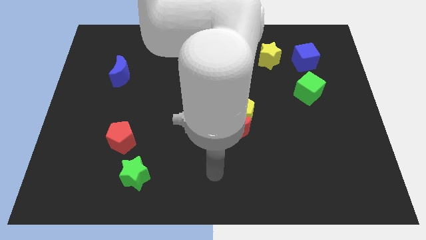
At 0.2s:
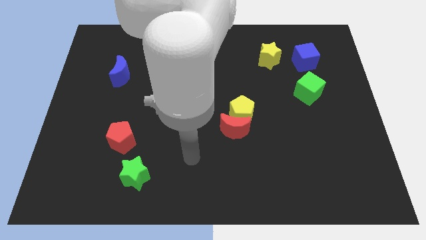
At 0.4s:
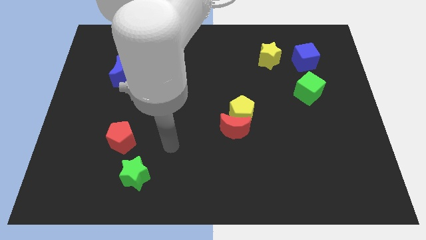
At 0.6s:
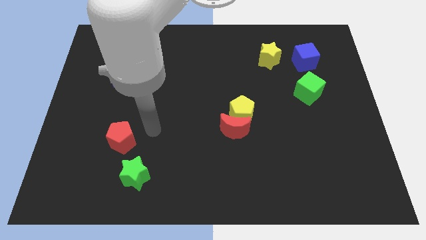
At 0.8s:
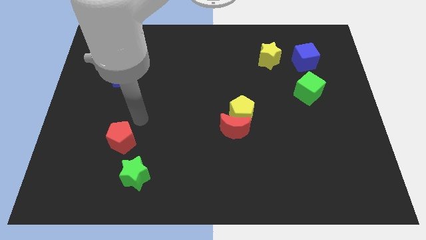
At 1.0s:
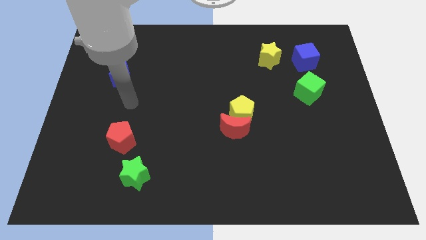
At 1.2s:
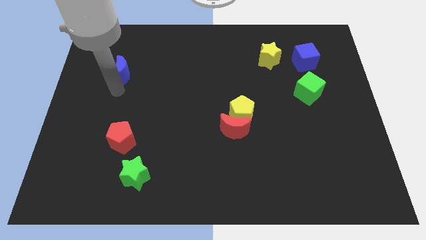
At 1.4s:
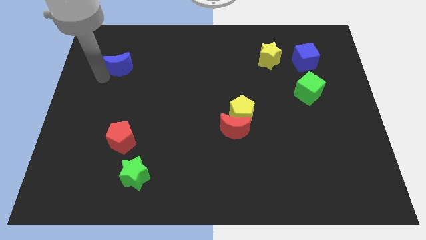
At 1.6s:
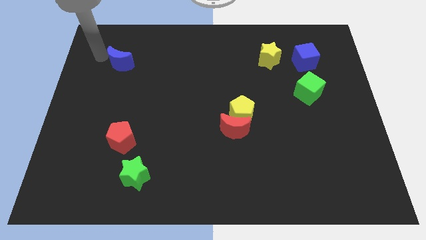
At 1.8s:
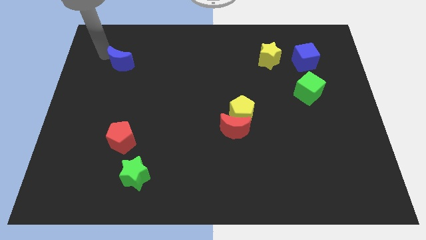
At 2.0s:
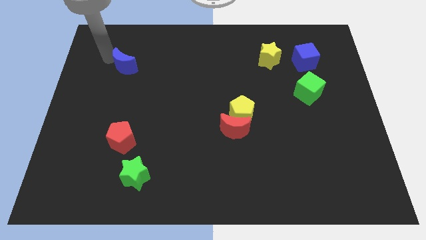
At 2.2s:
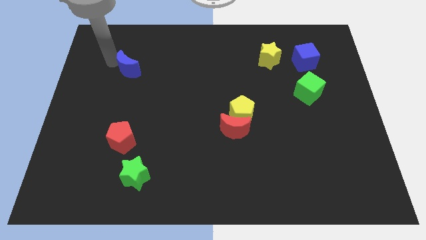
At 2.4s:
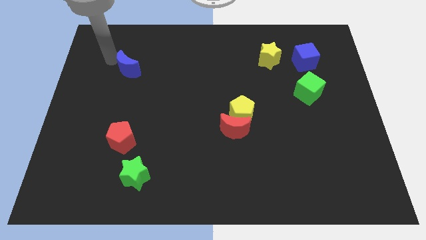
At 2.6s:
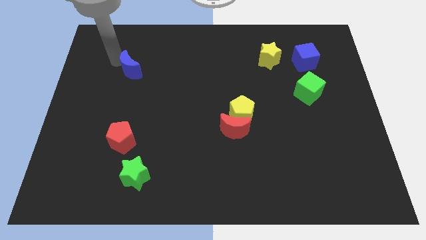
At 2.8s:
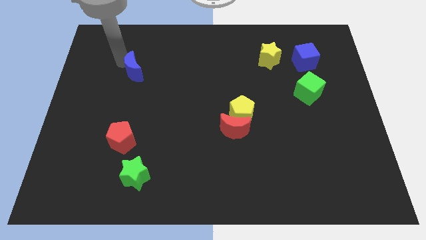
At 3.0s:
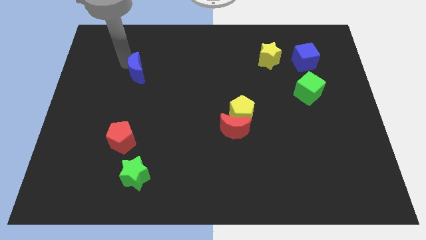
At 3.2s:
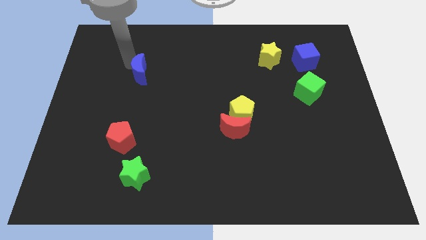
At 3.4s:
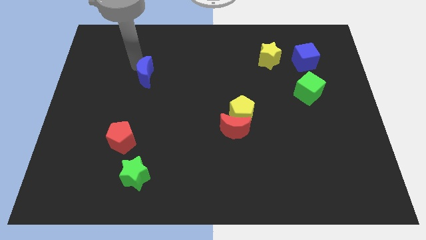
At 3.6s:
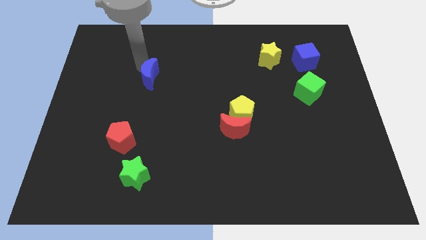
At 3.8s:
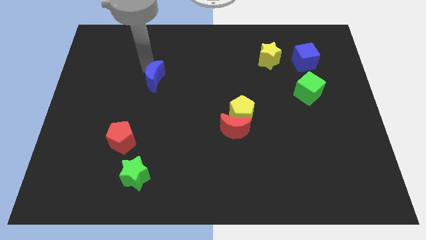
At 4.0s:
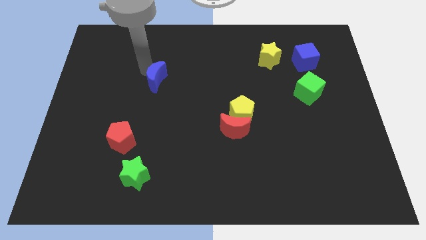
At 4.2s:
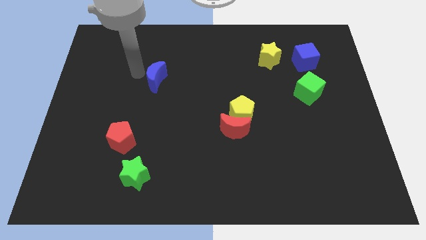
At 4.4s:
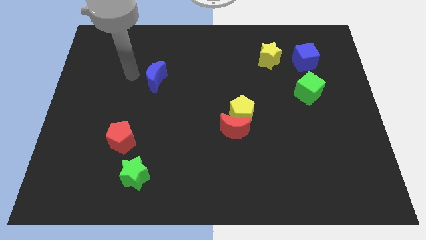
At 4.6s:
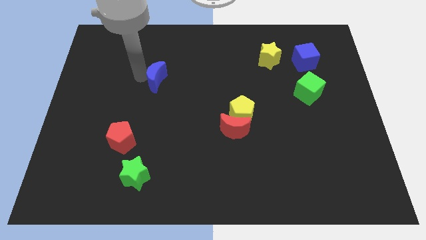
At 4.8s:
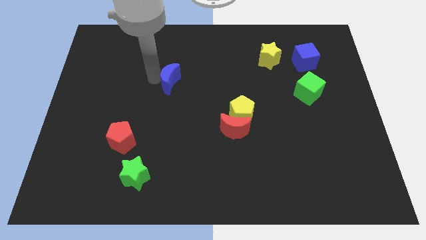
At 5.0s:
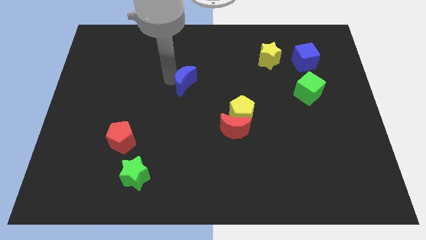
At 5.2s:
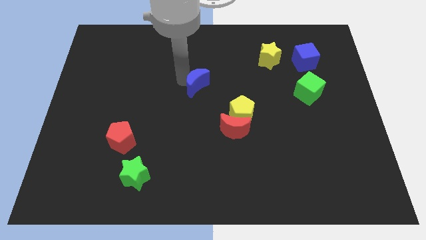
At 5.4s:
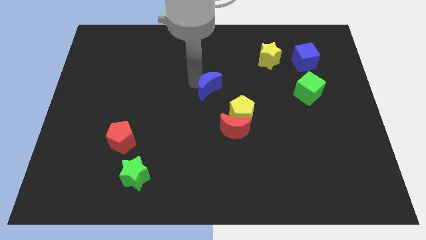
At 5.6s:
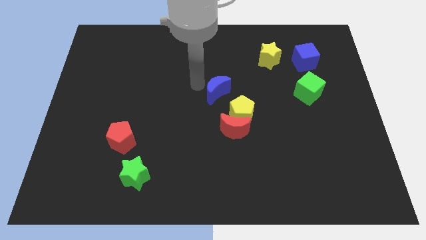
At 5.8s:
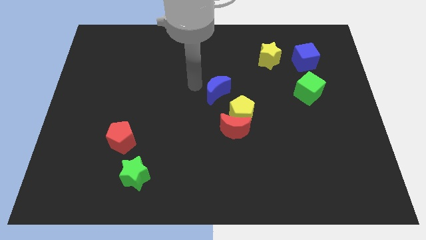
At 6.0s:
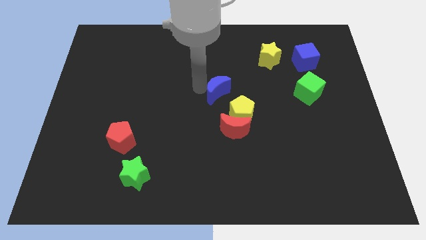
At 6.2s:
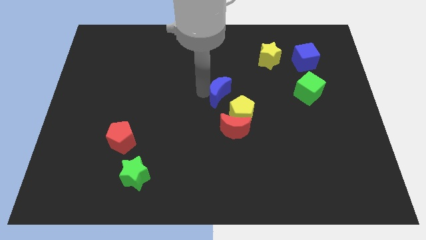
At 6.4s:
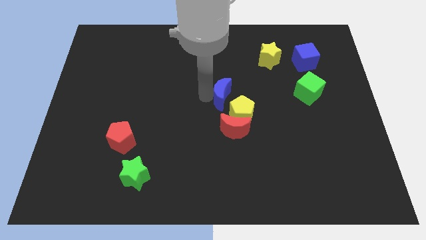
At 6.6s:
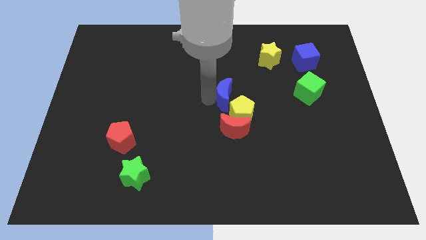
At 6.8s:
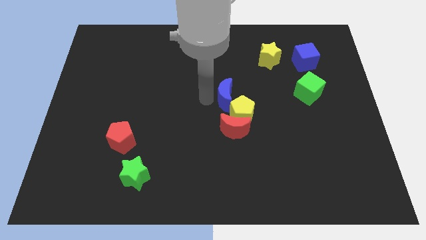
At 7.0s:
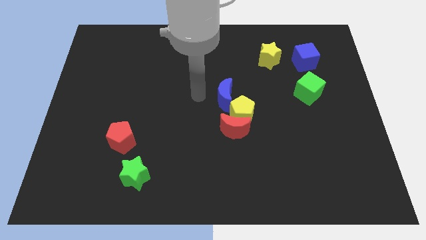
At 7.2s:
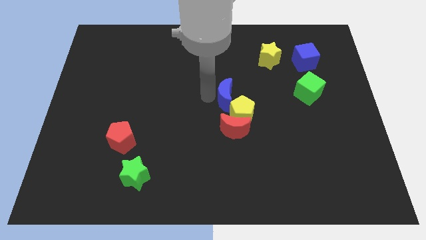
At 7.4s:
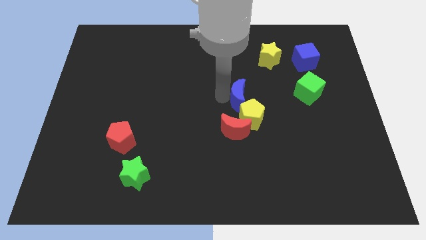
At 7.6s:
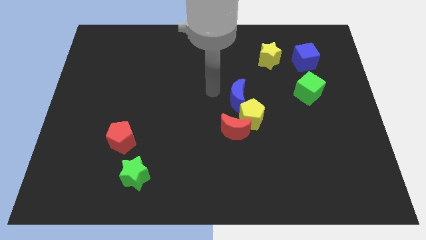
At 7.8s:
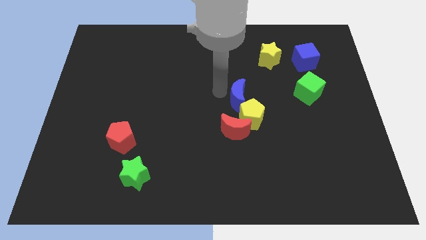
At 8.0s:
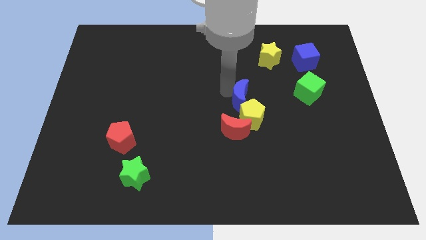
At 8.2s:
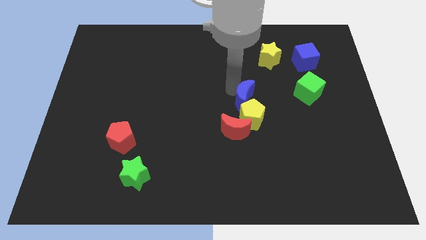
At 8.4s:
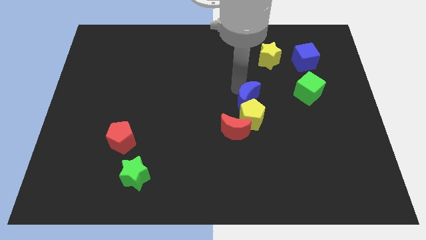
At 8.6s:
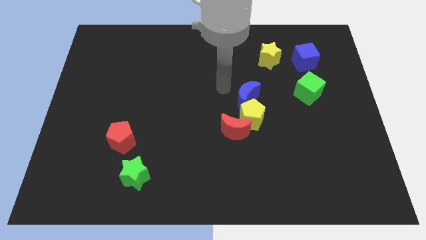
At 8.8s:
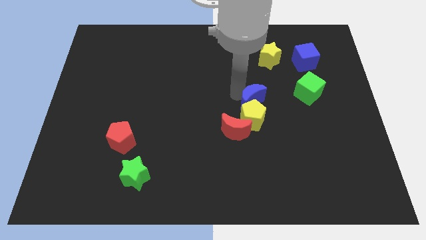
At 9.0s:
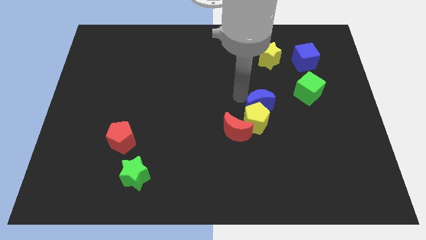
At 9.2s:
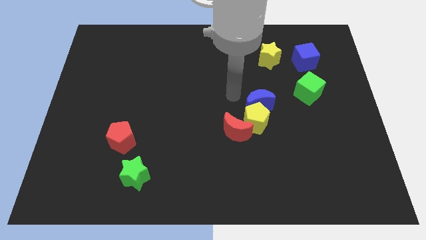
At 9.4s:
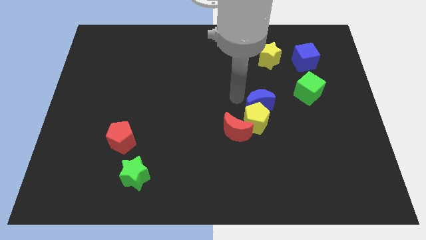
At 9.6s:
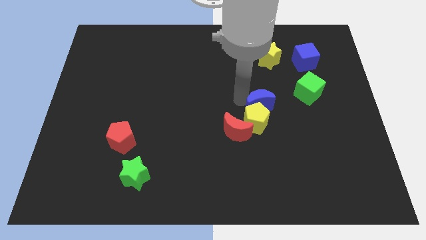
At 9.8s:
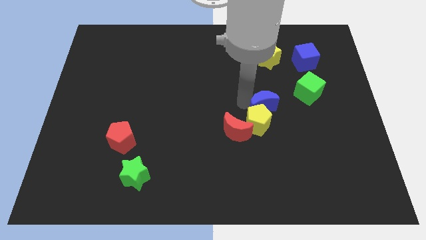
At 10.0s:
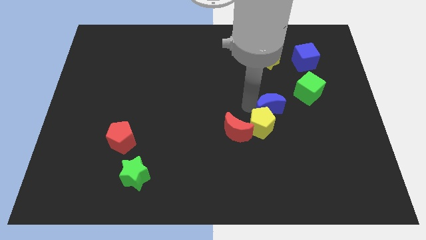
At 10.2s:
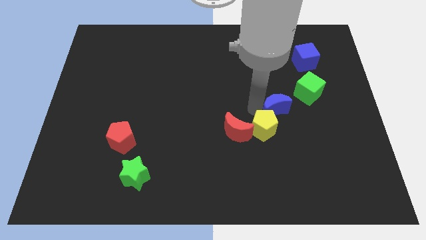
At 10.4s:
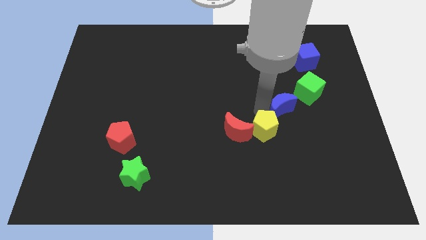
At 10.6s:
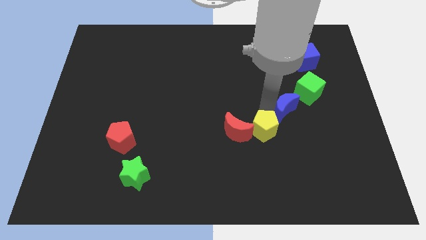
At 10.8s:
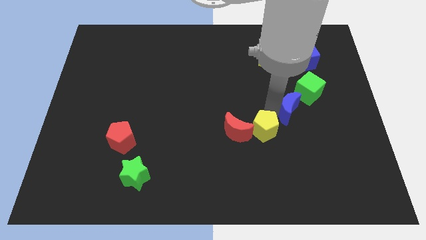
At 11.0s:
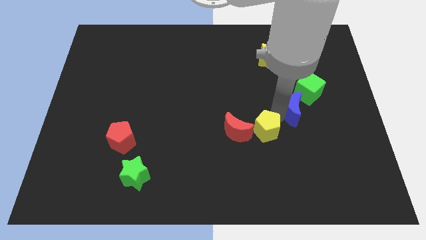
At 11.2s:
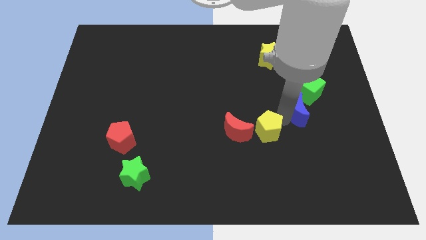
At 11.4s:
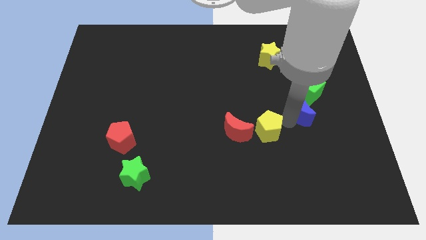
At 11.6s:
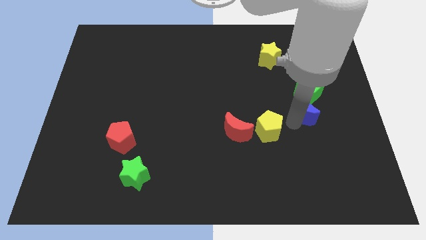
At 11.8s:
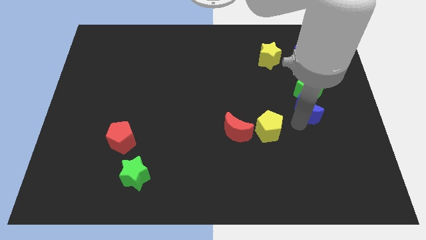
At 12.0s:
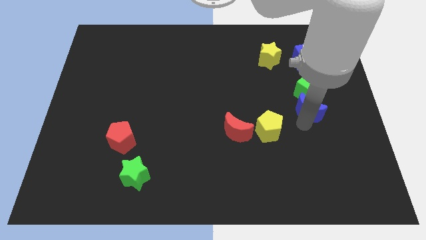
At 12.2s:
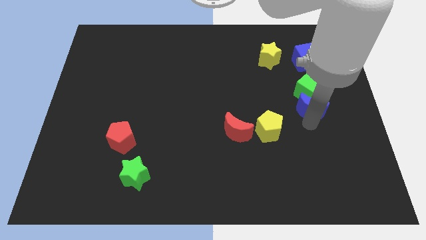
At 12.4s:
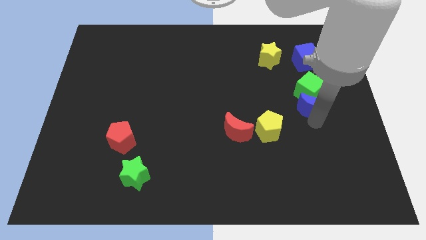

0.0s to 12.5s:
move the blue moon to the bottom of the blue cube

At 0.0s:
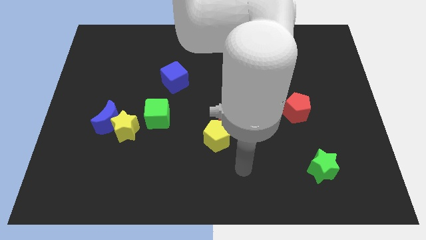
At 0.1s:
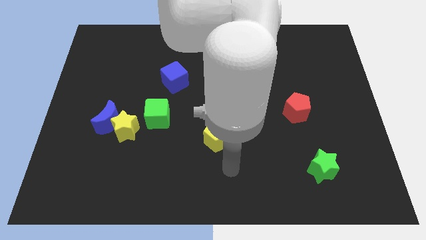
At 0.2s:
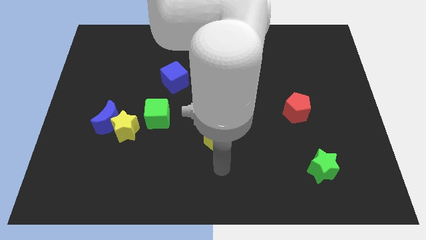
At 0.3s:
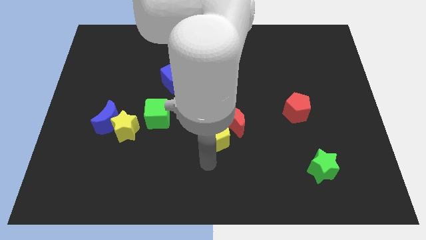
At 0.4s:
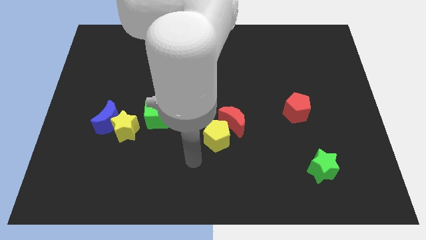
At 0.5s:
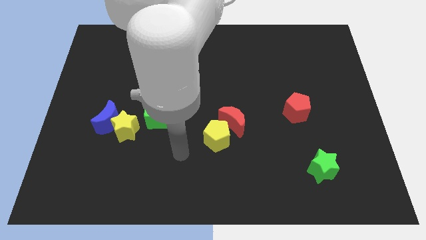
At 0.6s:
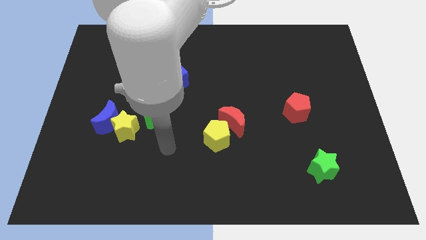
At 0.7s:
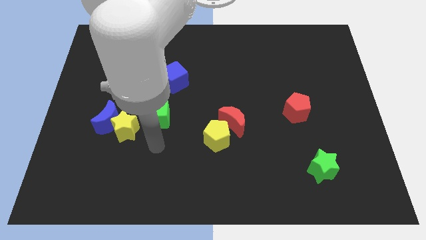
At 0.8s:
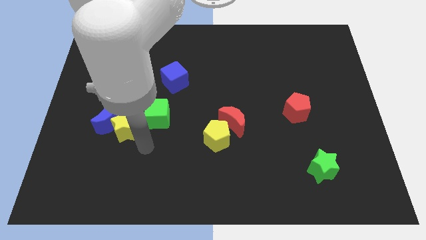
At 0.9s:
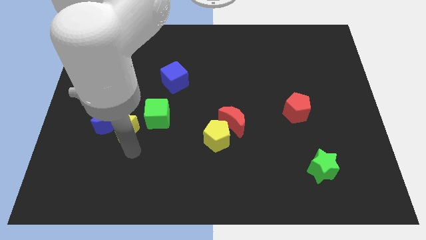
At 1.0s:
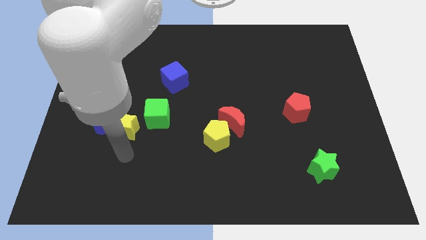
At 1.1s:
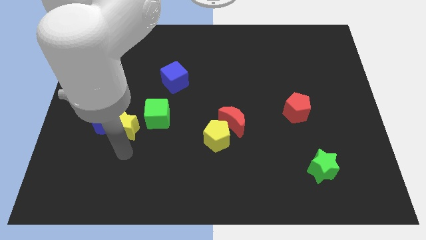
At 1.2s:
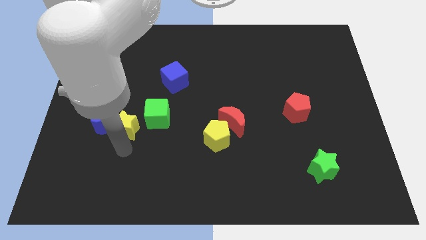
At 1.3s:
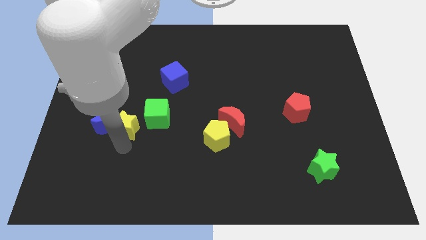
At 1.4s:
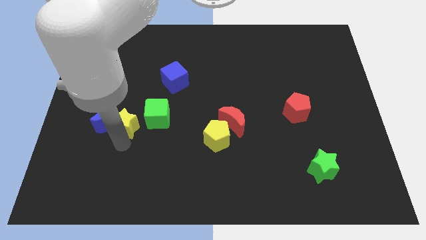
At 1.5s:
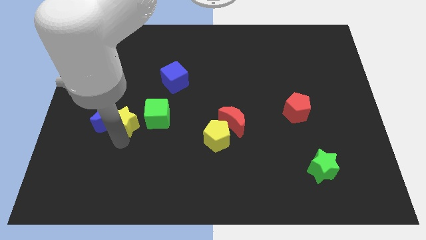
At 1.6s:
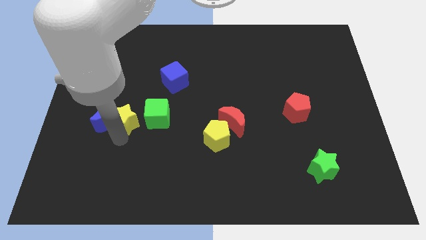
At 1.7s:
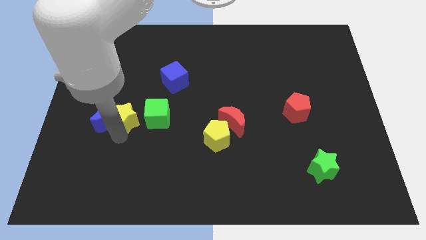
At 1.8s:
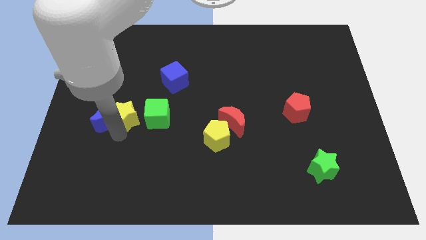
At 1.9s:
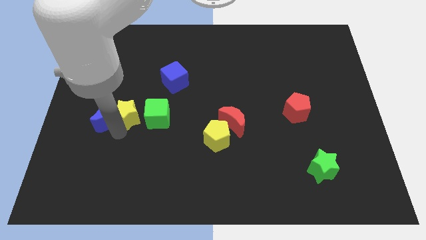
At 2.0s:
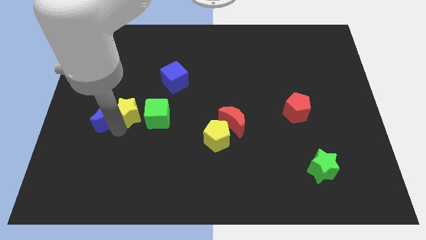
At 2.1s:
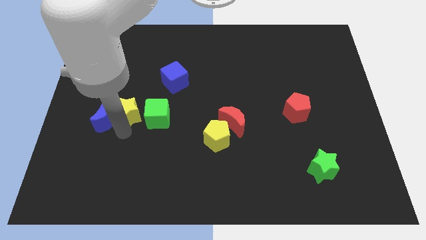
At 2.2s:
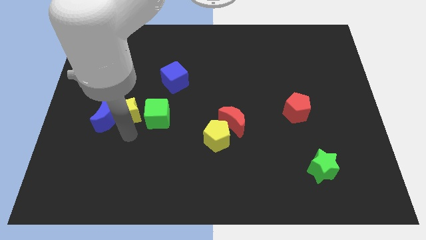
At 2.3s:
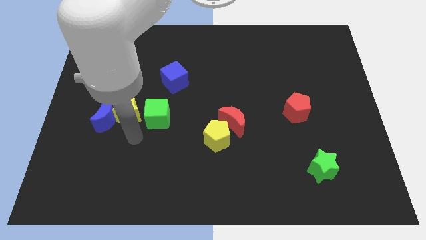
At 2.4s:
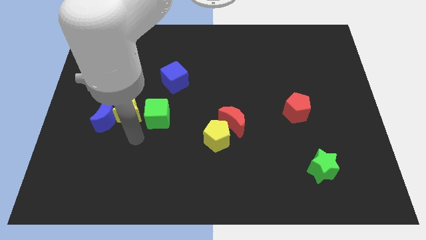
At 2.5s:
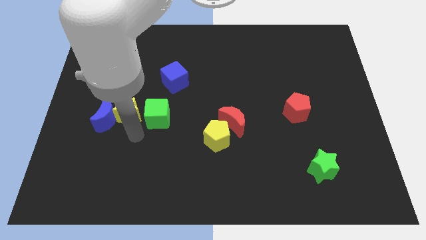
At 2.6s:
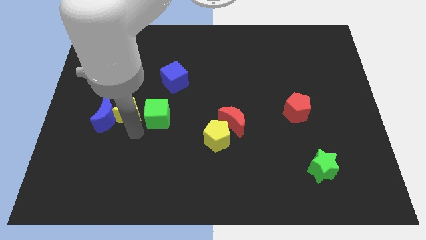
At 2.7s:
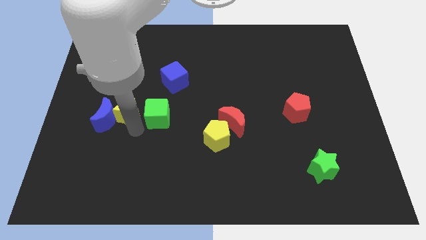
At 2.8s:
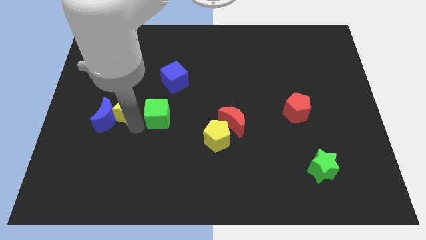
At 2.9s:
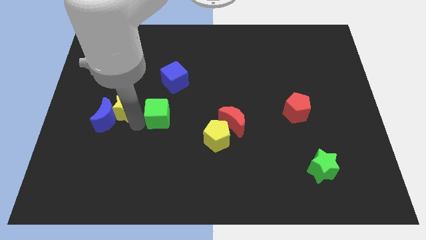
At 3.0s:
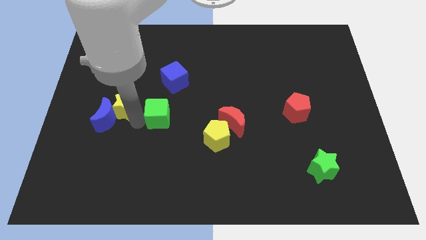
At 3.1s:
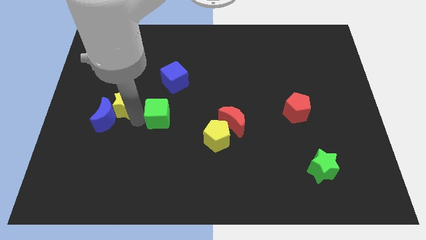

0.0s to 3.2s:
push the yellow star above the blue moon
